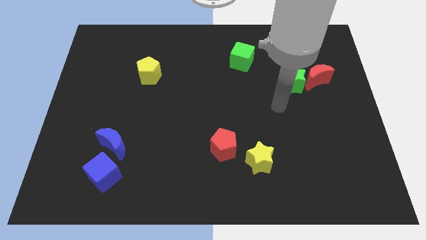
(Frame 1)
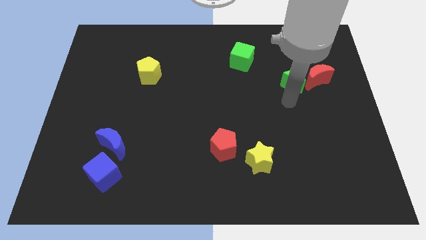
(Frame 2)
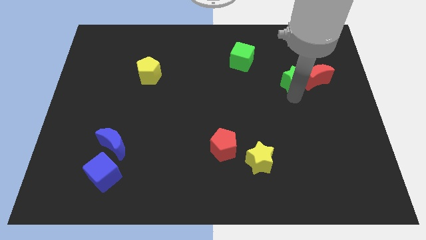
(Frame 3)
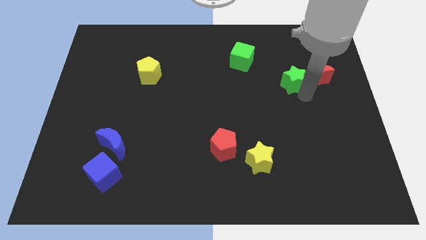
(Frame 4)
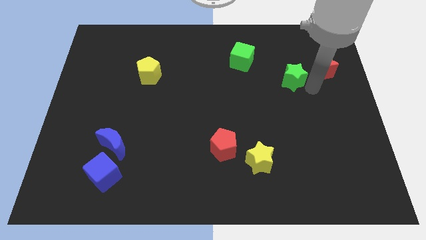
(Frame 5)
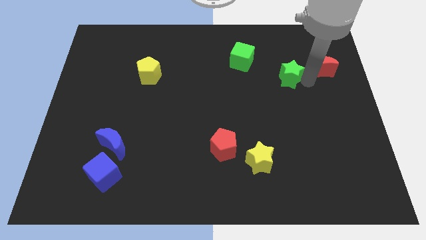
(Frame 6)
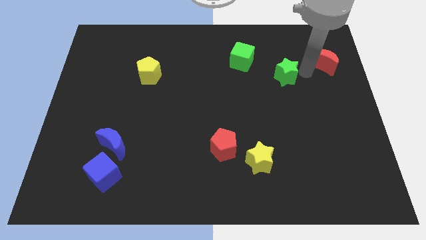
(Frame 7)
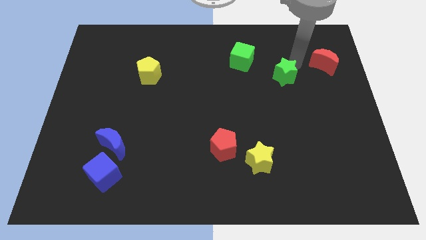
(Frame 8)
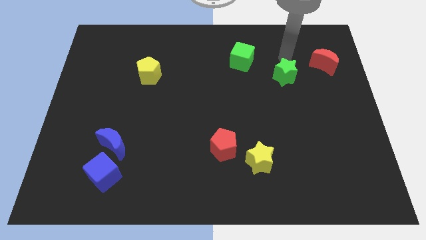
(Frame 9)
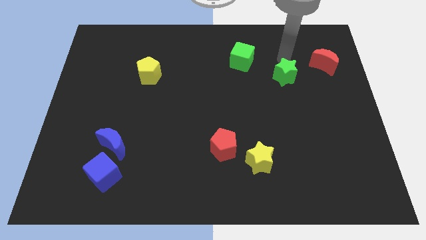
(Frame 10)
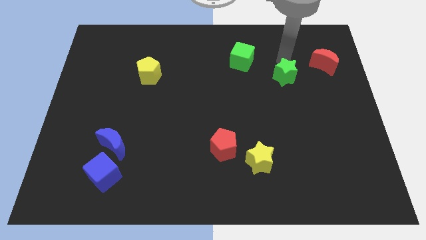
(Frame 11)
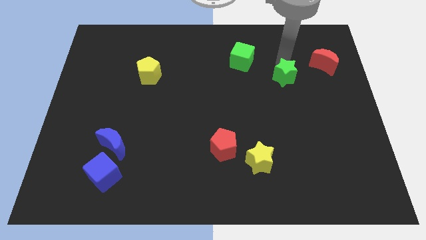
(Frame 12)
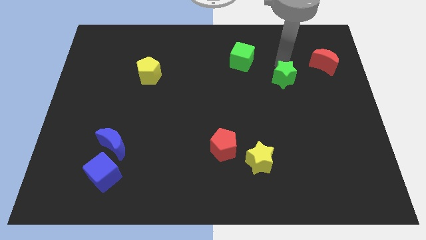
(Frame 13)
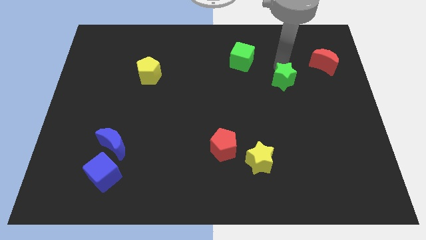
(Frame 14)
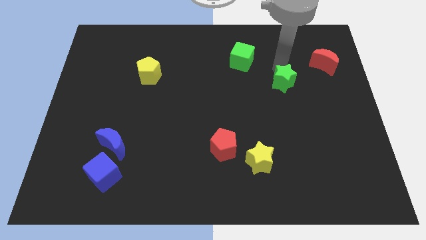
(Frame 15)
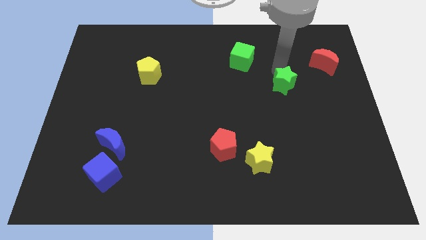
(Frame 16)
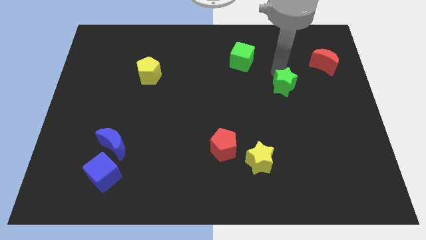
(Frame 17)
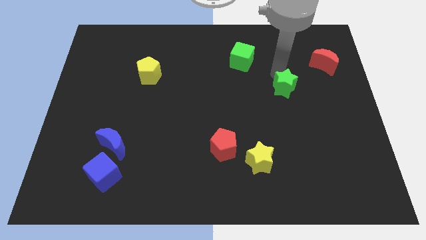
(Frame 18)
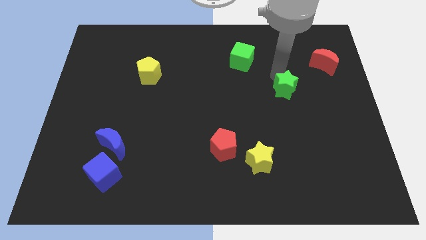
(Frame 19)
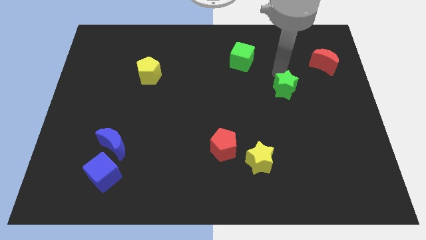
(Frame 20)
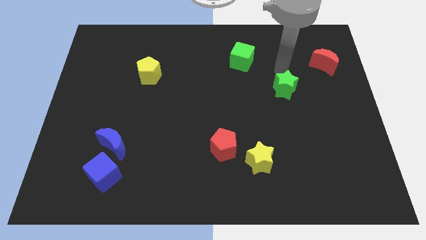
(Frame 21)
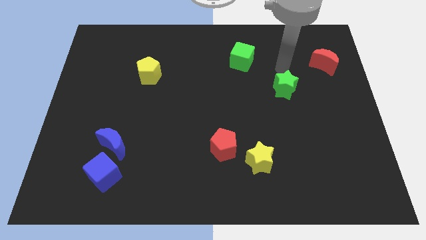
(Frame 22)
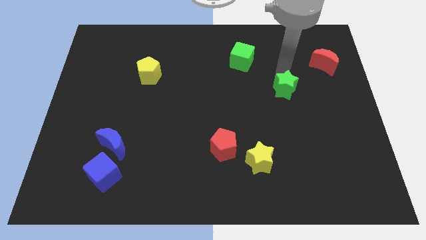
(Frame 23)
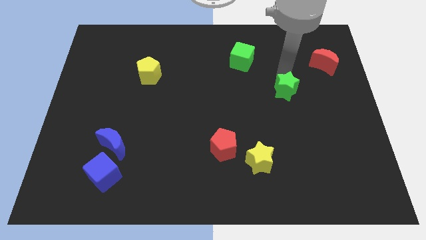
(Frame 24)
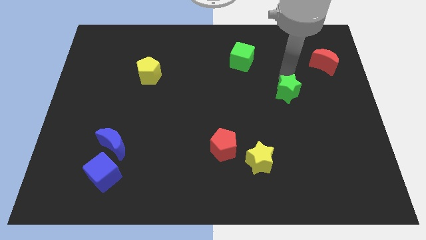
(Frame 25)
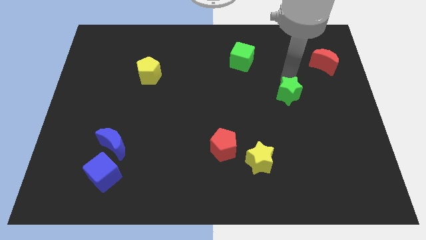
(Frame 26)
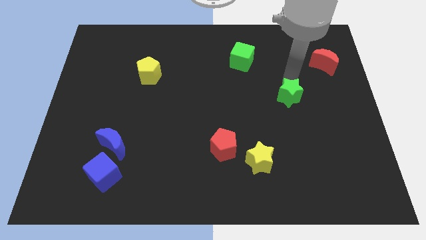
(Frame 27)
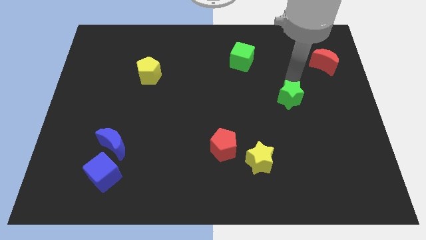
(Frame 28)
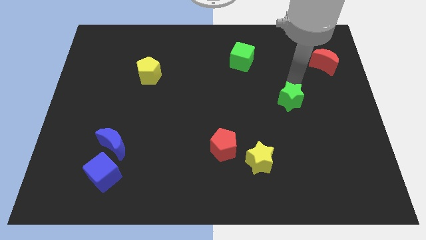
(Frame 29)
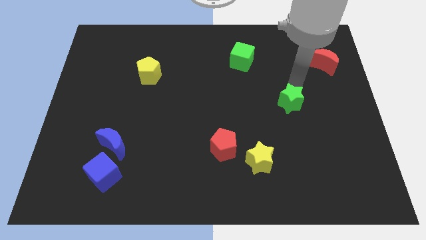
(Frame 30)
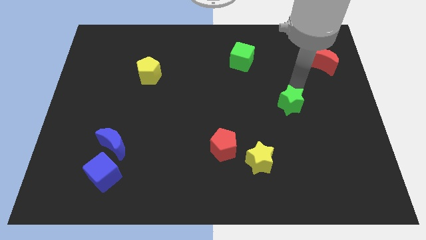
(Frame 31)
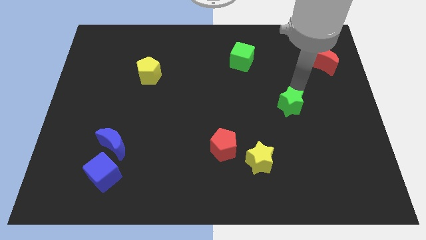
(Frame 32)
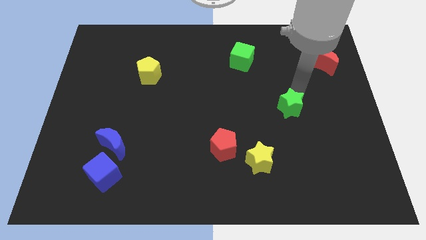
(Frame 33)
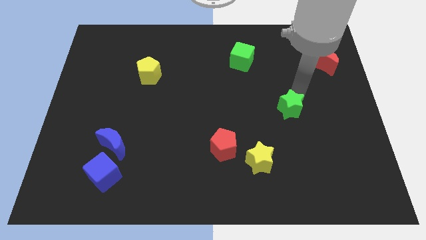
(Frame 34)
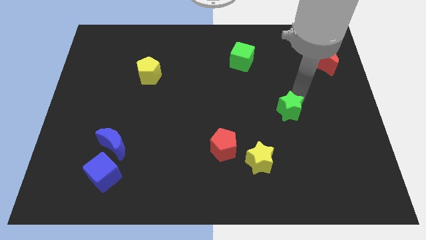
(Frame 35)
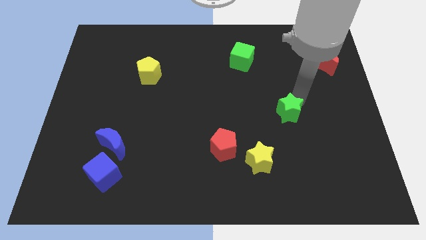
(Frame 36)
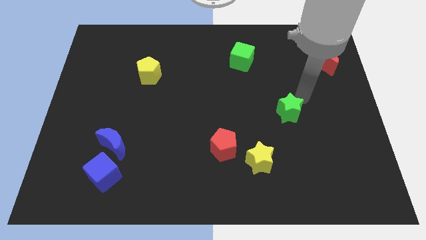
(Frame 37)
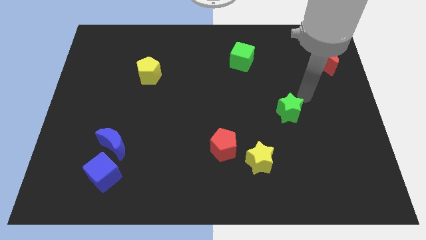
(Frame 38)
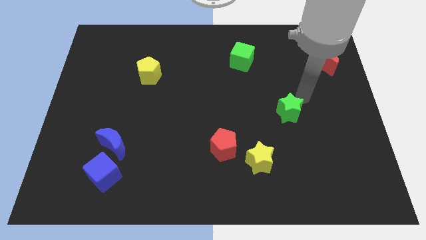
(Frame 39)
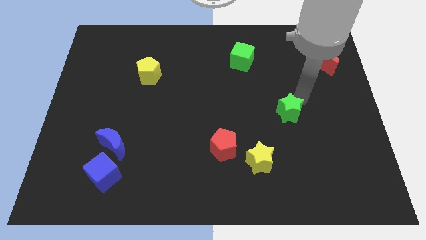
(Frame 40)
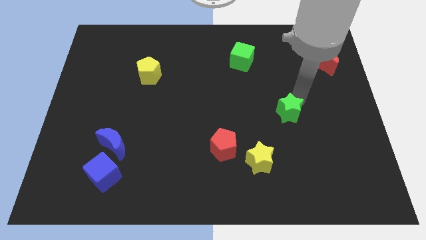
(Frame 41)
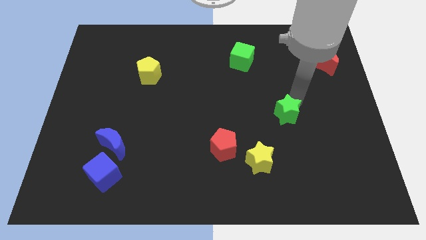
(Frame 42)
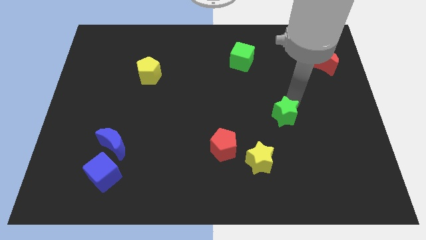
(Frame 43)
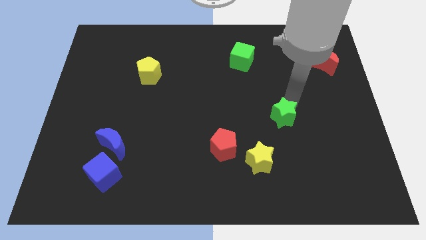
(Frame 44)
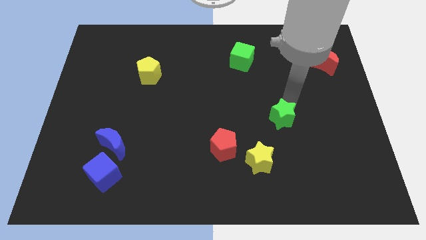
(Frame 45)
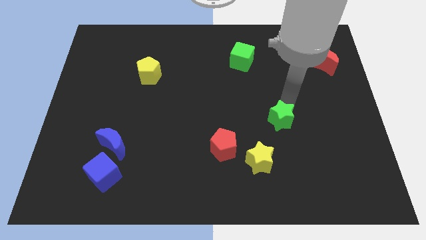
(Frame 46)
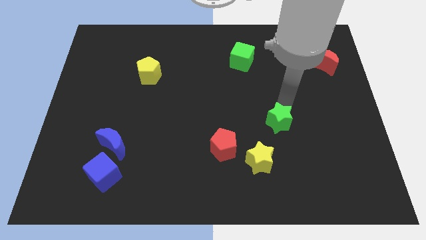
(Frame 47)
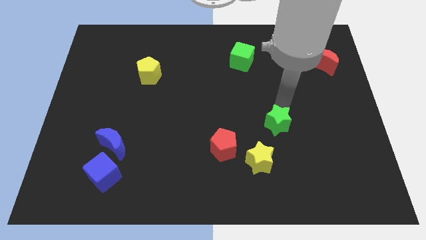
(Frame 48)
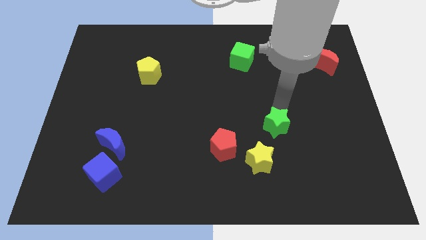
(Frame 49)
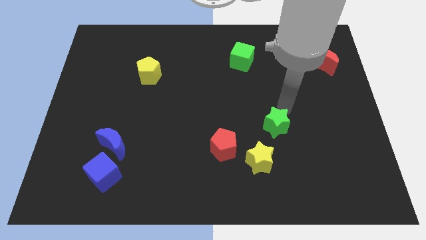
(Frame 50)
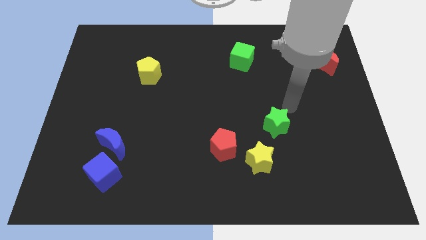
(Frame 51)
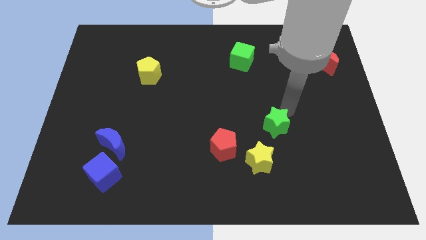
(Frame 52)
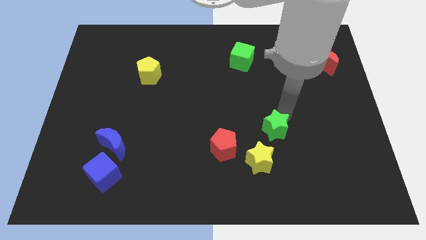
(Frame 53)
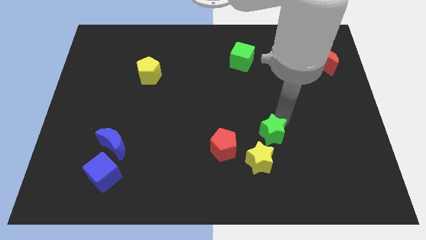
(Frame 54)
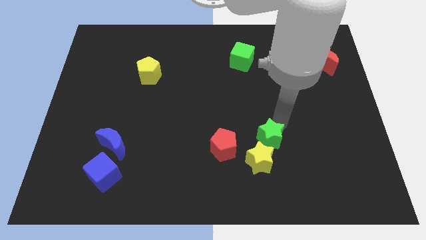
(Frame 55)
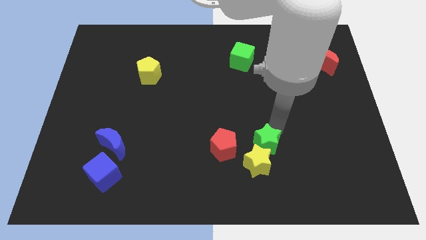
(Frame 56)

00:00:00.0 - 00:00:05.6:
push the green star next to the yellow star

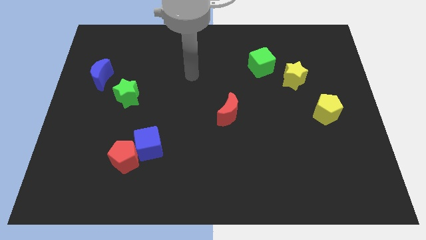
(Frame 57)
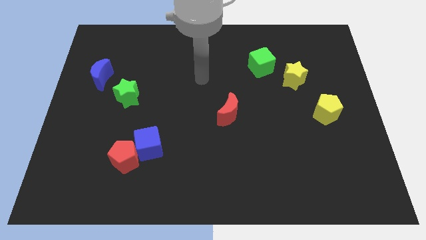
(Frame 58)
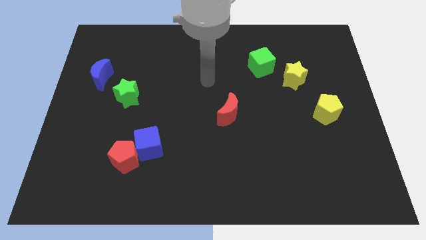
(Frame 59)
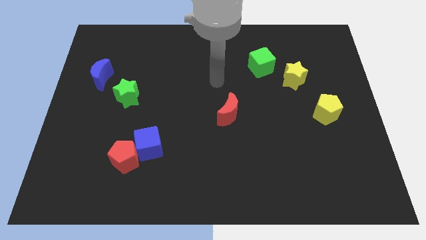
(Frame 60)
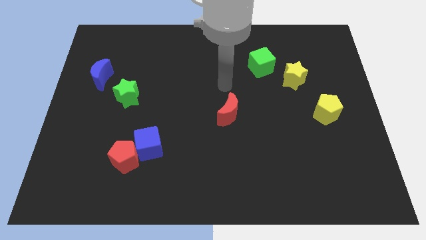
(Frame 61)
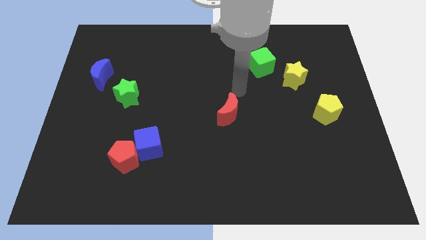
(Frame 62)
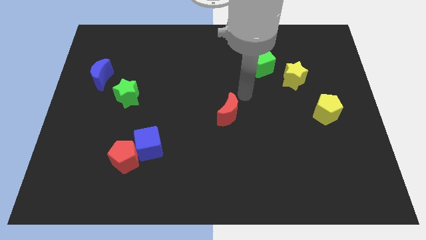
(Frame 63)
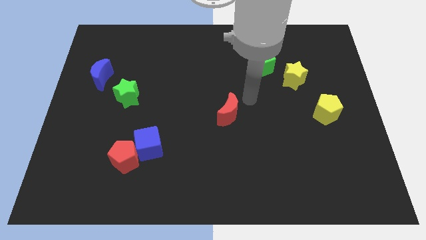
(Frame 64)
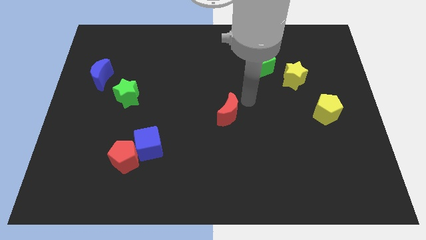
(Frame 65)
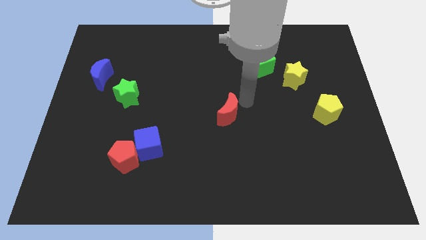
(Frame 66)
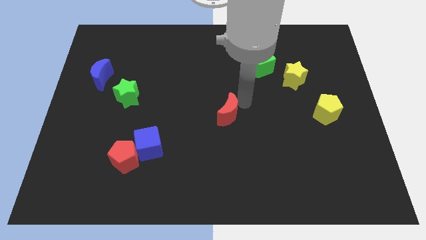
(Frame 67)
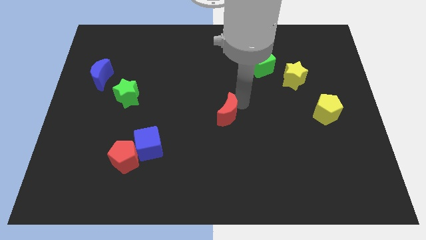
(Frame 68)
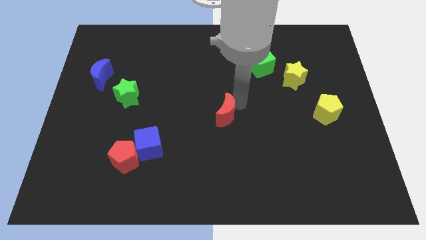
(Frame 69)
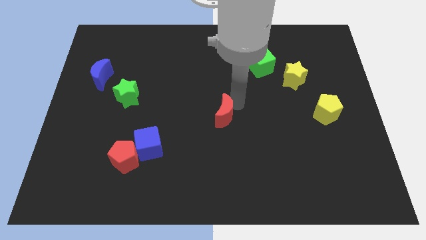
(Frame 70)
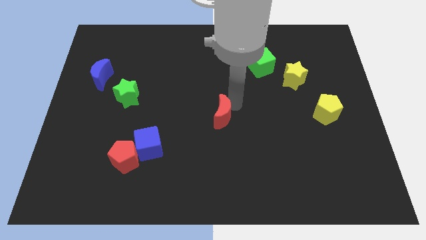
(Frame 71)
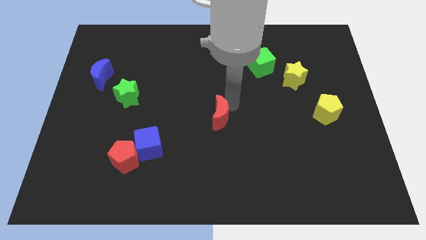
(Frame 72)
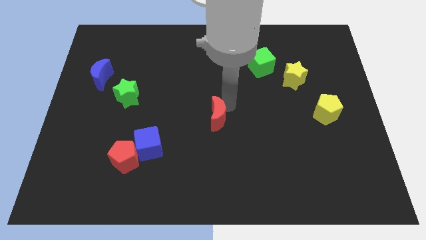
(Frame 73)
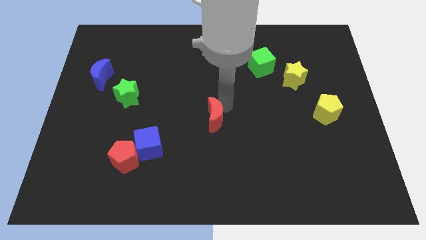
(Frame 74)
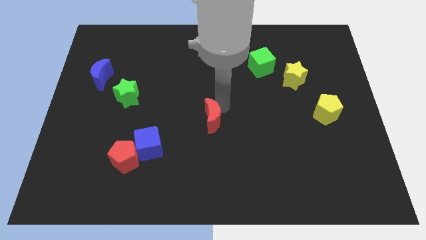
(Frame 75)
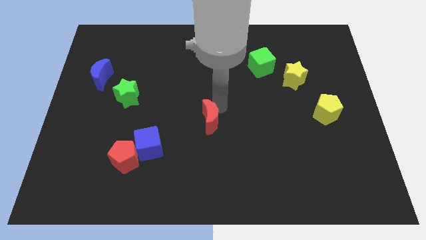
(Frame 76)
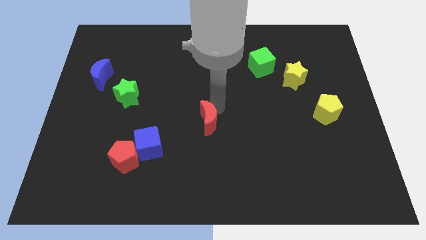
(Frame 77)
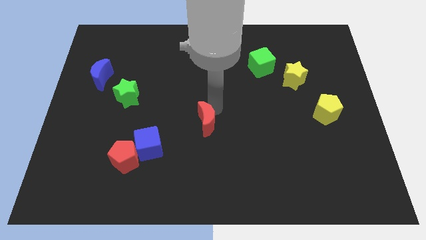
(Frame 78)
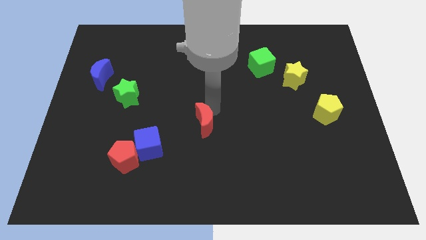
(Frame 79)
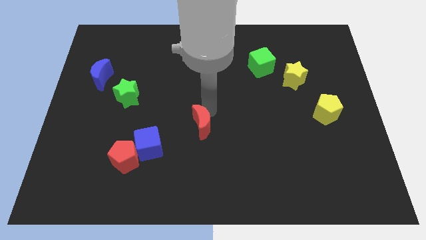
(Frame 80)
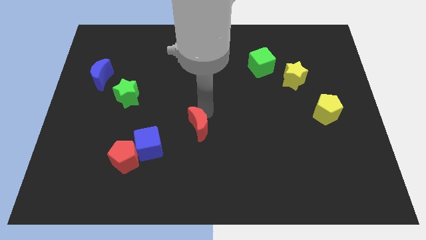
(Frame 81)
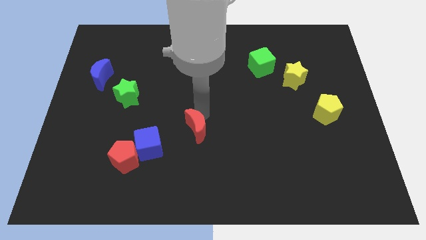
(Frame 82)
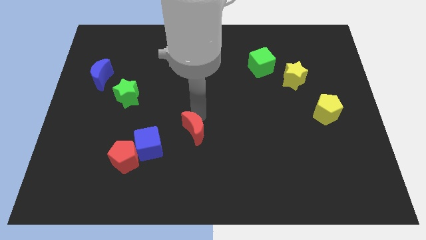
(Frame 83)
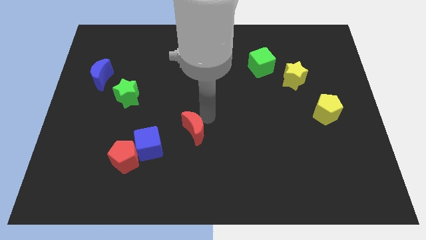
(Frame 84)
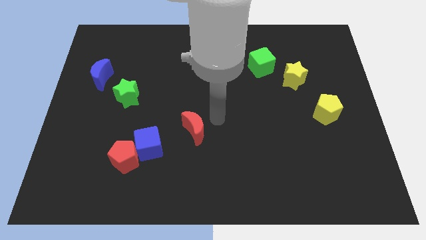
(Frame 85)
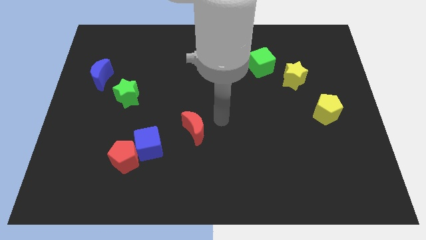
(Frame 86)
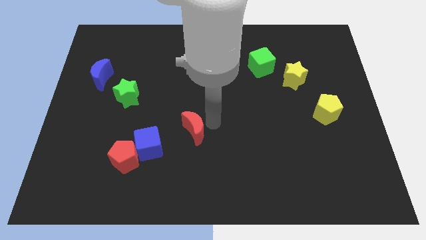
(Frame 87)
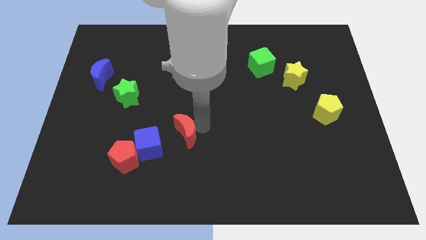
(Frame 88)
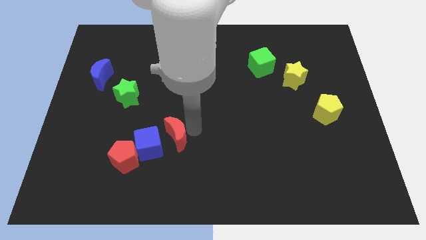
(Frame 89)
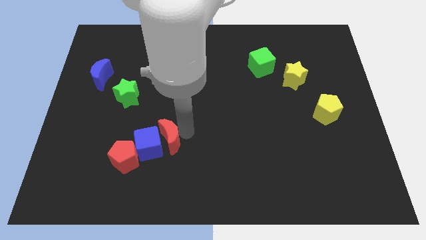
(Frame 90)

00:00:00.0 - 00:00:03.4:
move the red moon next to the blue cube
